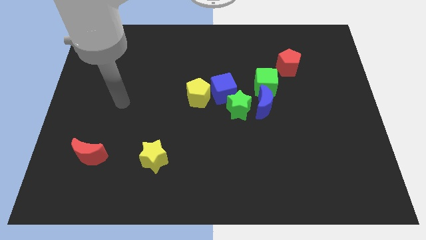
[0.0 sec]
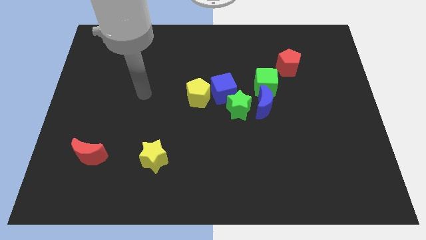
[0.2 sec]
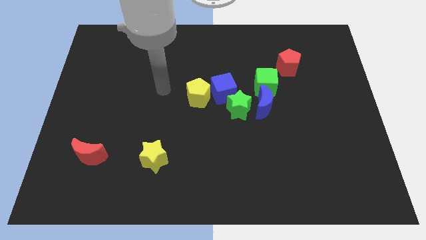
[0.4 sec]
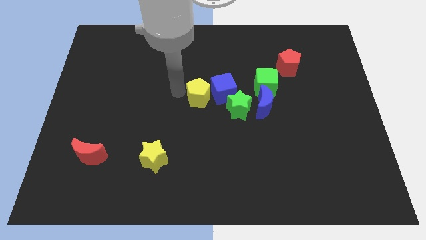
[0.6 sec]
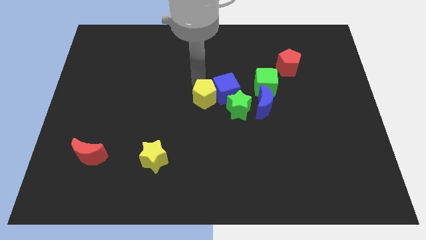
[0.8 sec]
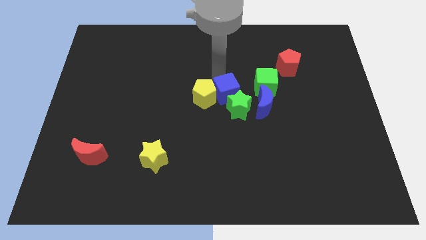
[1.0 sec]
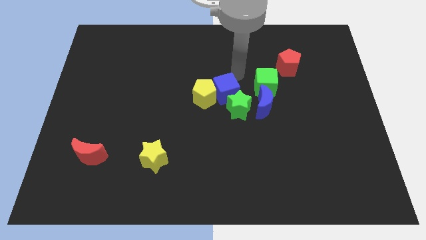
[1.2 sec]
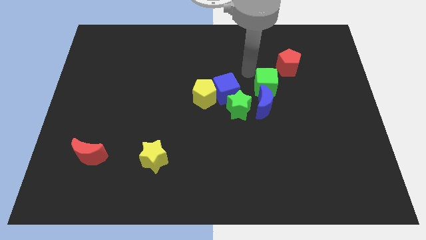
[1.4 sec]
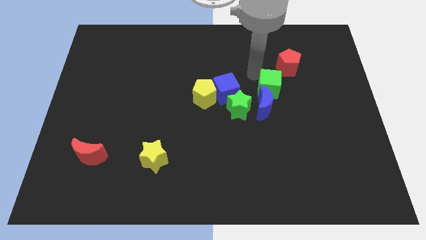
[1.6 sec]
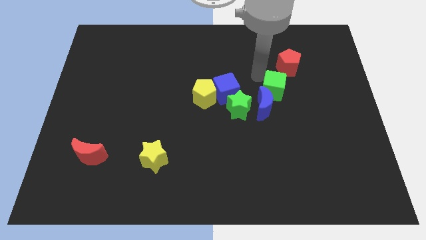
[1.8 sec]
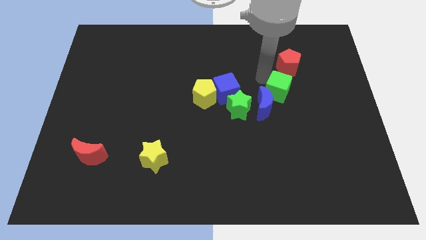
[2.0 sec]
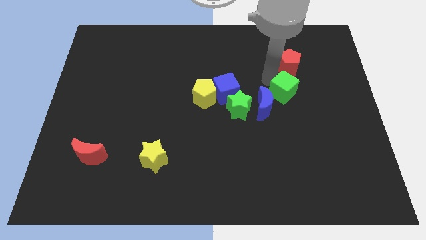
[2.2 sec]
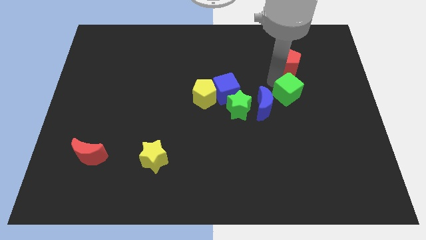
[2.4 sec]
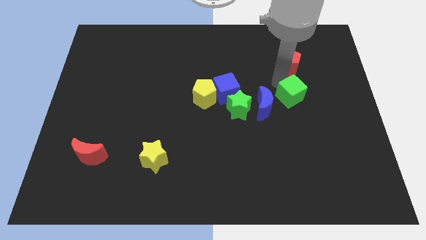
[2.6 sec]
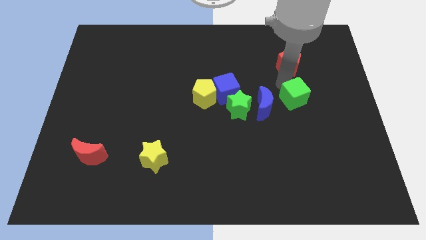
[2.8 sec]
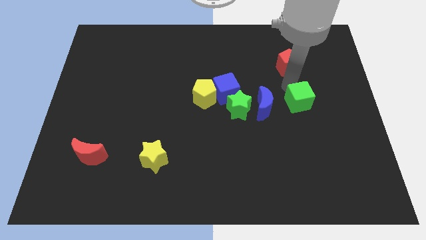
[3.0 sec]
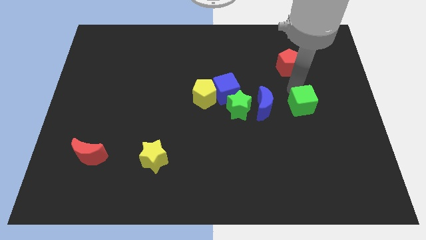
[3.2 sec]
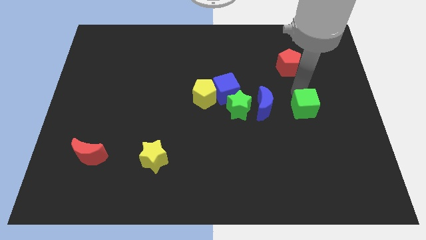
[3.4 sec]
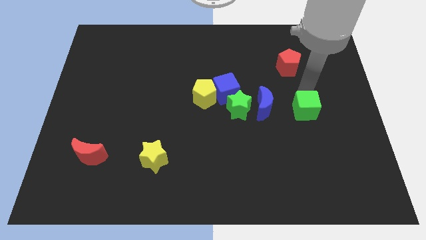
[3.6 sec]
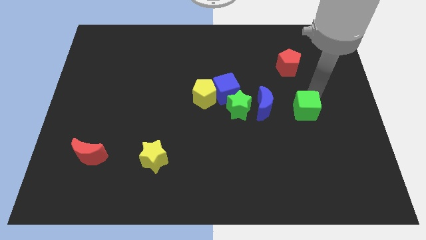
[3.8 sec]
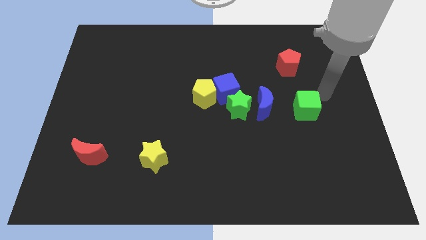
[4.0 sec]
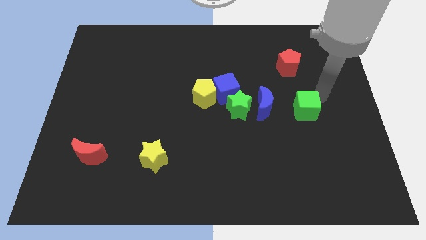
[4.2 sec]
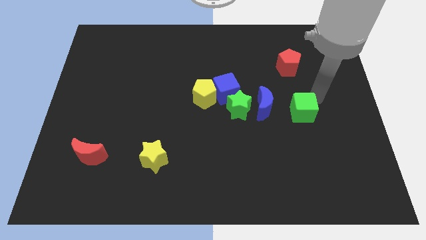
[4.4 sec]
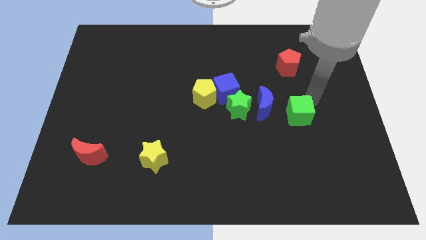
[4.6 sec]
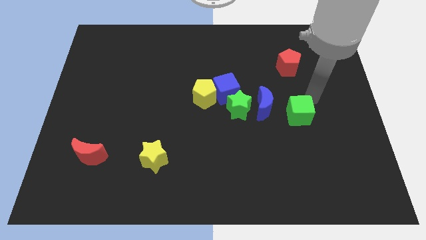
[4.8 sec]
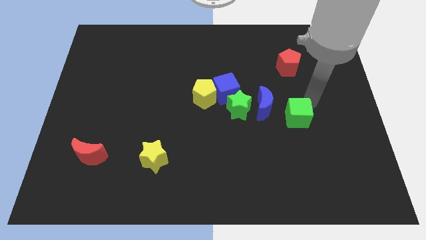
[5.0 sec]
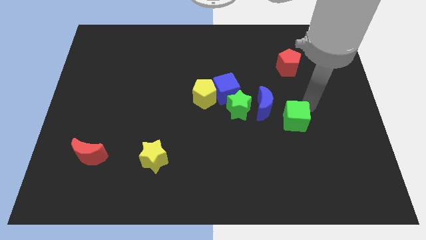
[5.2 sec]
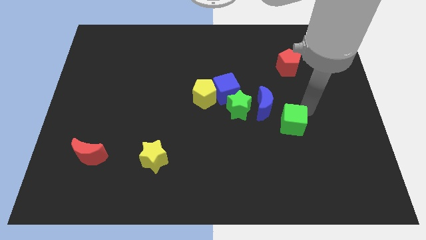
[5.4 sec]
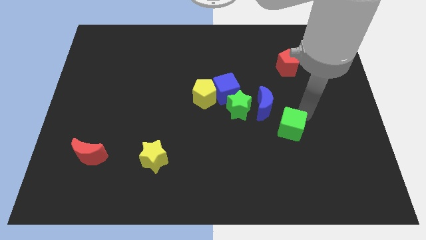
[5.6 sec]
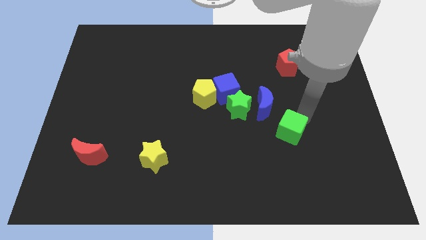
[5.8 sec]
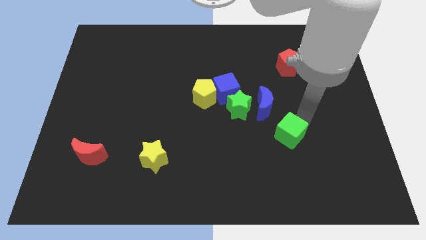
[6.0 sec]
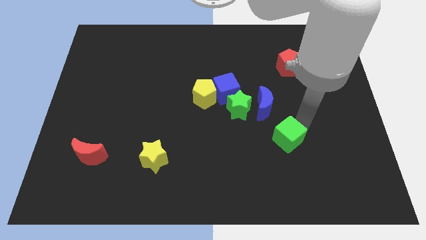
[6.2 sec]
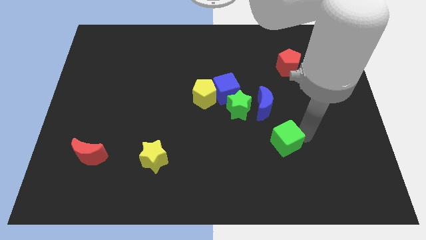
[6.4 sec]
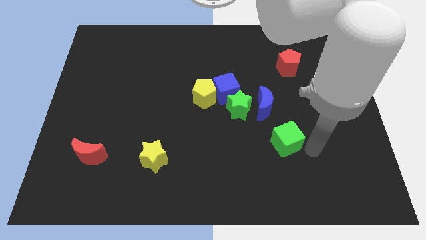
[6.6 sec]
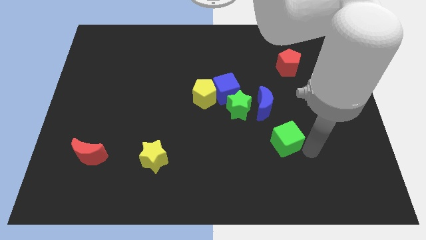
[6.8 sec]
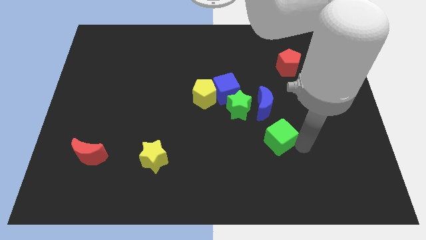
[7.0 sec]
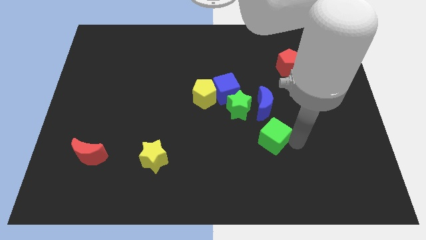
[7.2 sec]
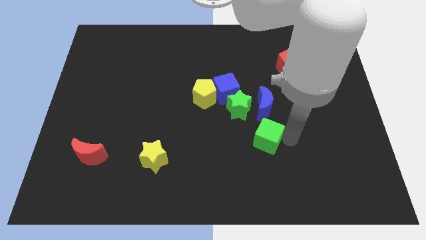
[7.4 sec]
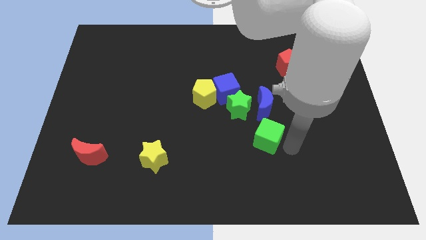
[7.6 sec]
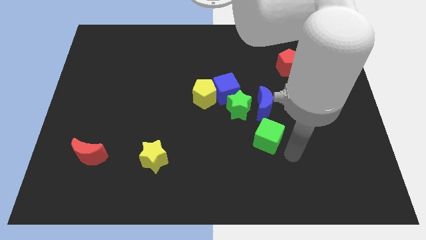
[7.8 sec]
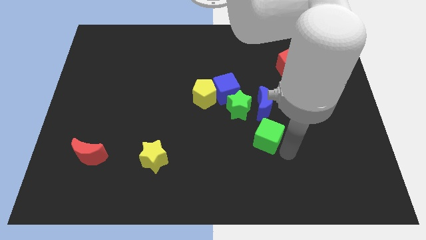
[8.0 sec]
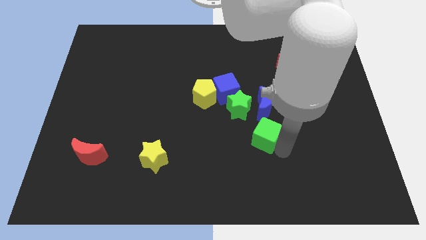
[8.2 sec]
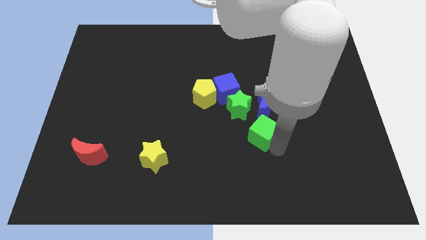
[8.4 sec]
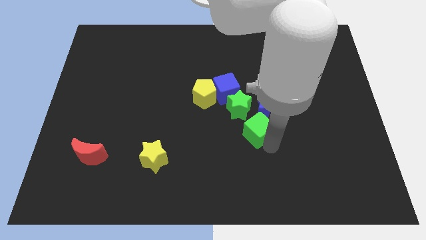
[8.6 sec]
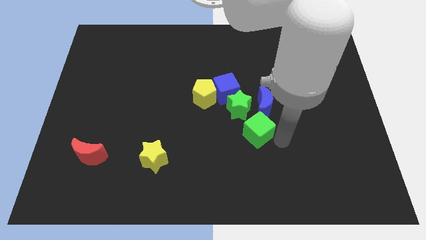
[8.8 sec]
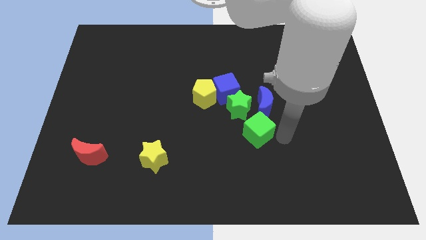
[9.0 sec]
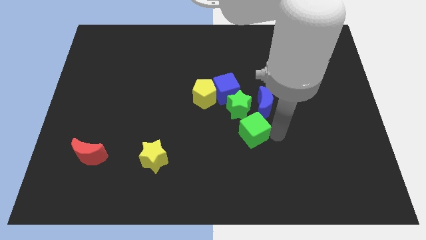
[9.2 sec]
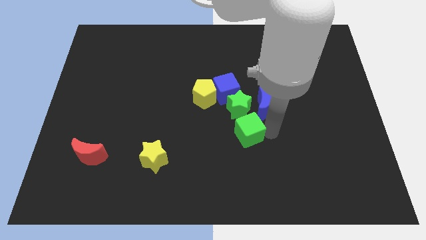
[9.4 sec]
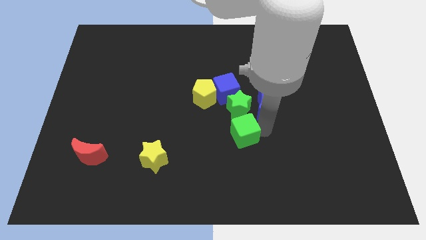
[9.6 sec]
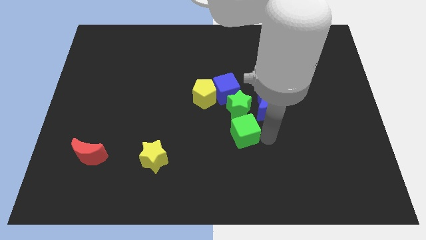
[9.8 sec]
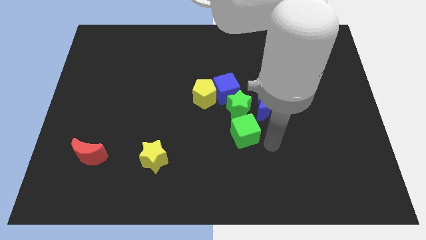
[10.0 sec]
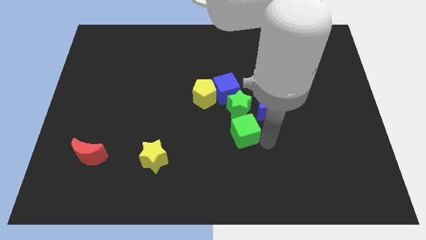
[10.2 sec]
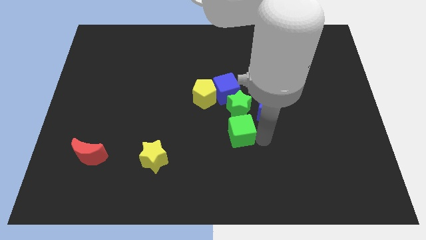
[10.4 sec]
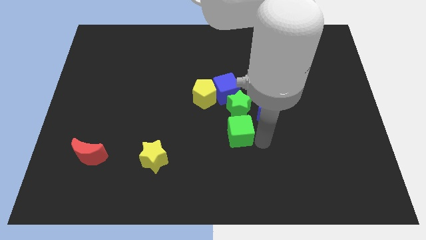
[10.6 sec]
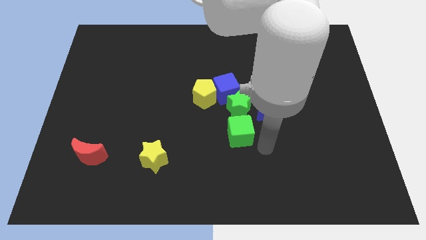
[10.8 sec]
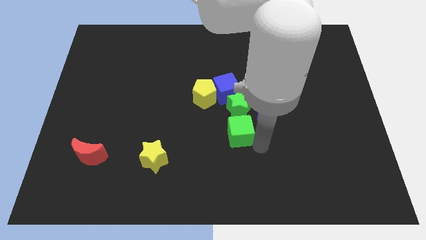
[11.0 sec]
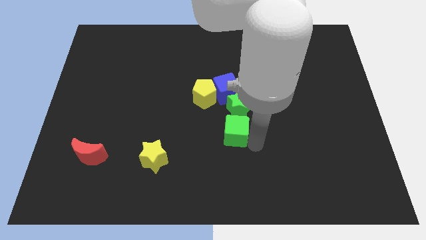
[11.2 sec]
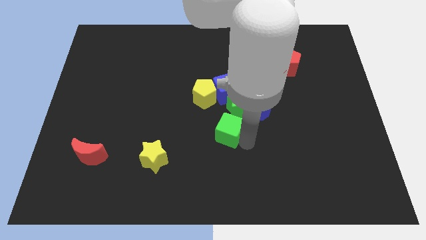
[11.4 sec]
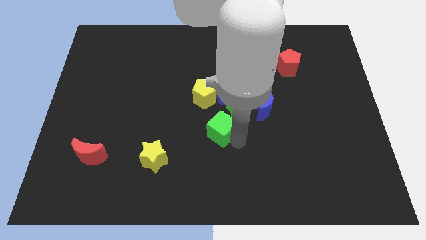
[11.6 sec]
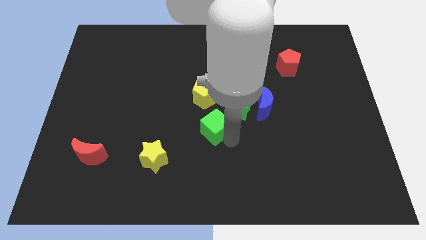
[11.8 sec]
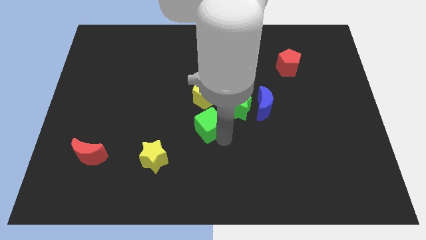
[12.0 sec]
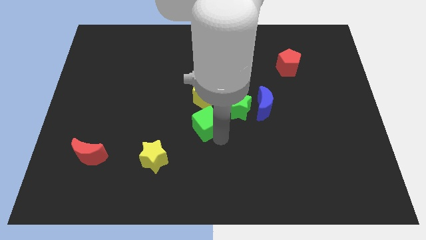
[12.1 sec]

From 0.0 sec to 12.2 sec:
slide the green cube to the bottom left side of the blue cube

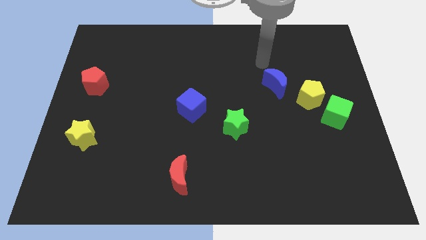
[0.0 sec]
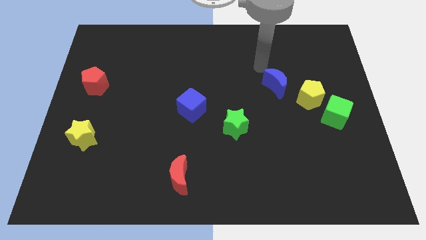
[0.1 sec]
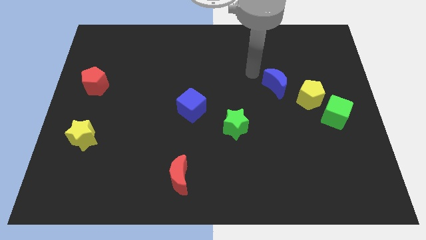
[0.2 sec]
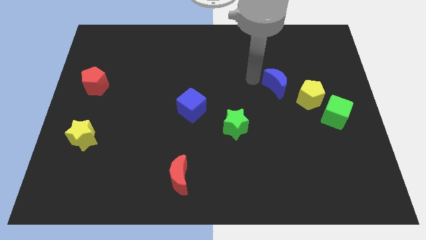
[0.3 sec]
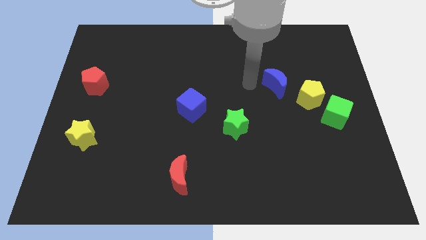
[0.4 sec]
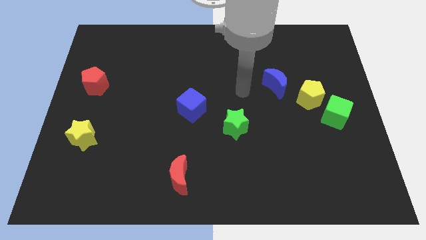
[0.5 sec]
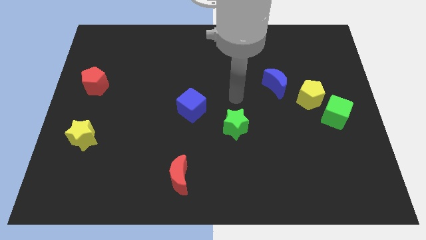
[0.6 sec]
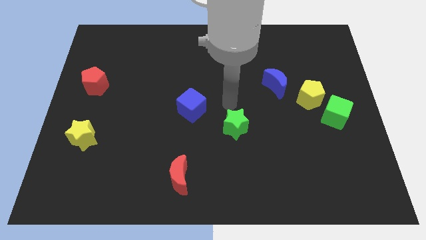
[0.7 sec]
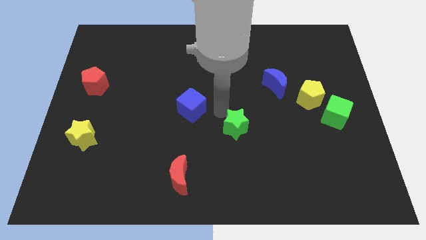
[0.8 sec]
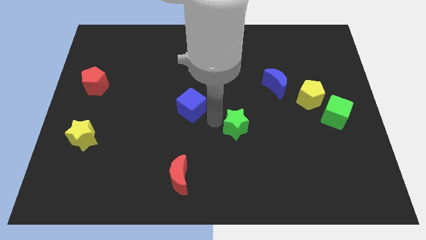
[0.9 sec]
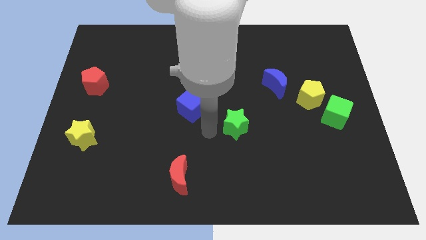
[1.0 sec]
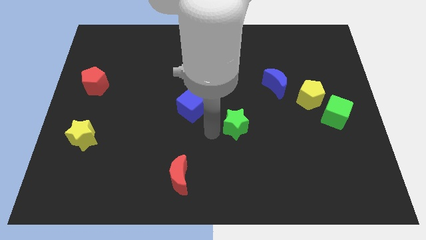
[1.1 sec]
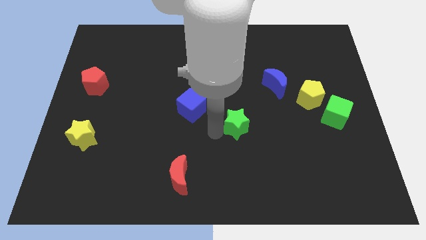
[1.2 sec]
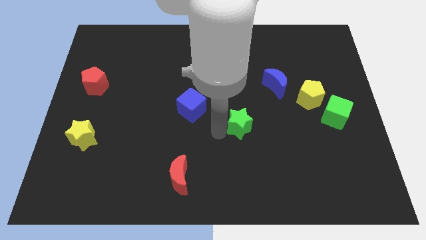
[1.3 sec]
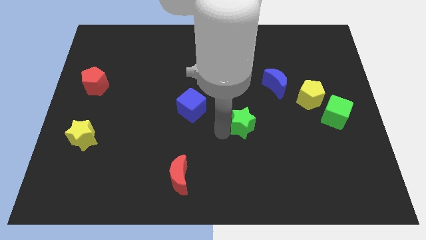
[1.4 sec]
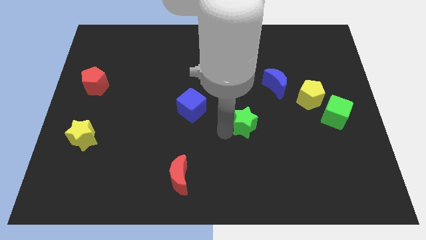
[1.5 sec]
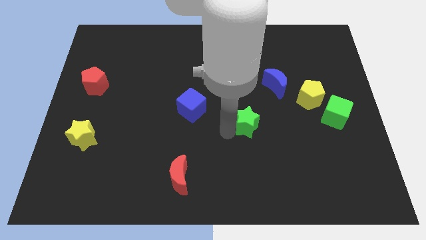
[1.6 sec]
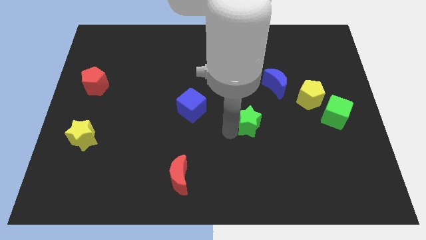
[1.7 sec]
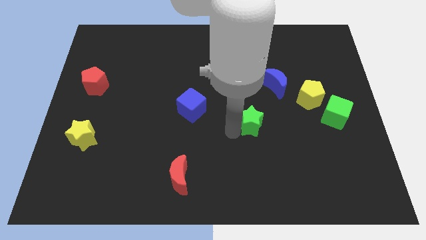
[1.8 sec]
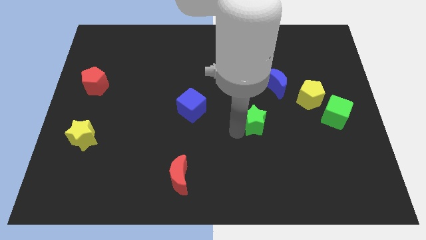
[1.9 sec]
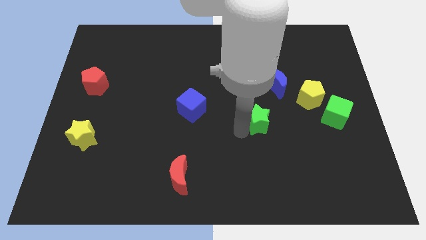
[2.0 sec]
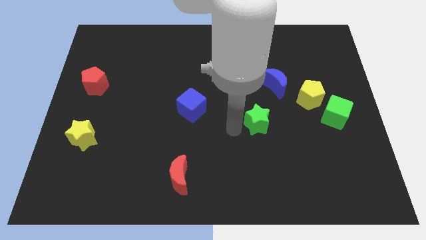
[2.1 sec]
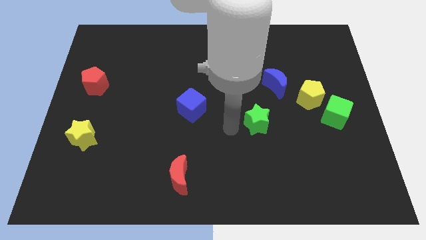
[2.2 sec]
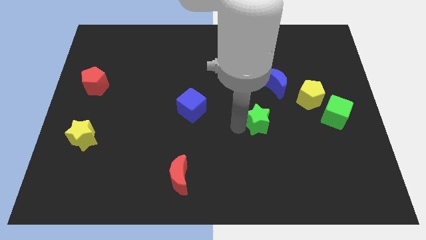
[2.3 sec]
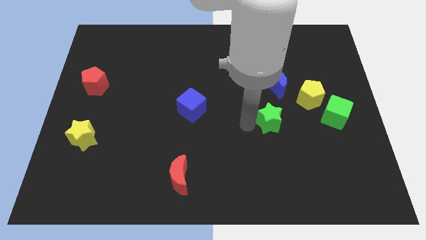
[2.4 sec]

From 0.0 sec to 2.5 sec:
slide the green star to the left side of the green cube
